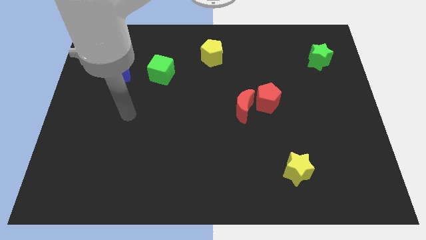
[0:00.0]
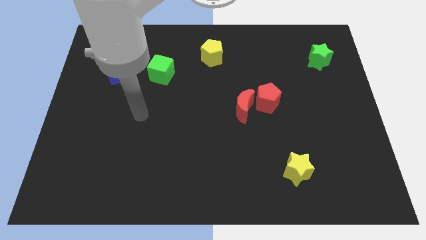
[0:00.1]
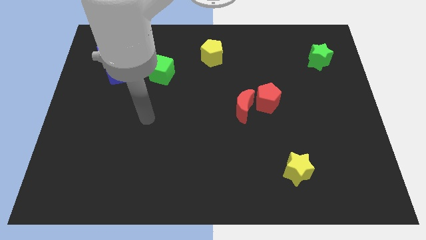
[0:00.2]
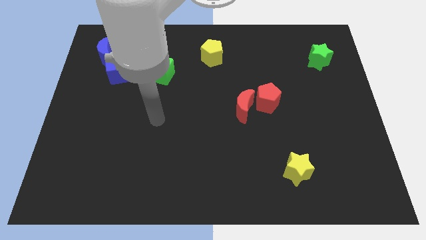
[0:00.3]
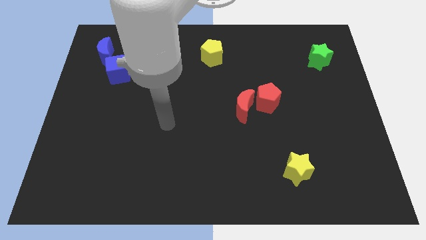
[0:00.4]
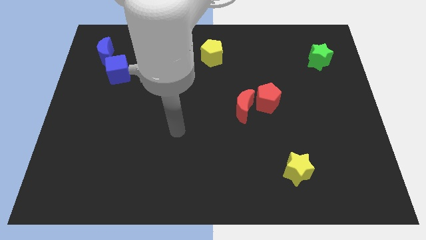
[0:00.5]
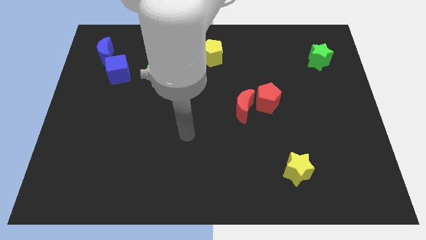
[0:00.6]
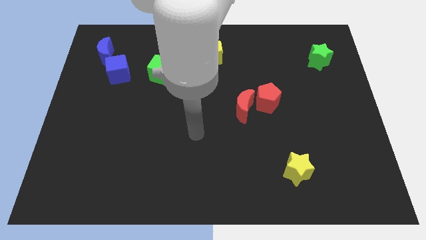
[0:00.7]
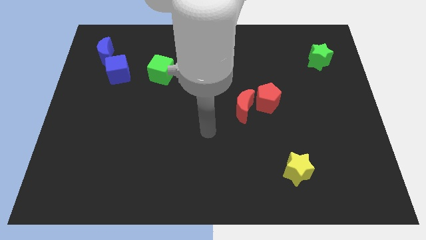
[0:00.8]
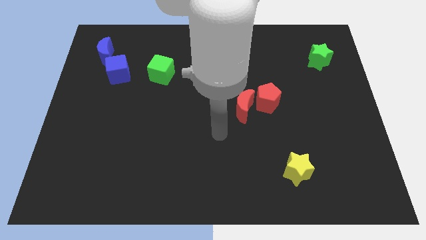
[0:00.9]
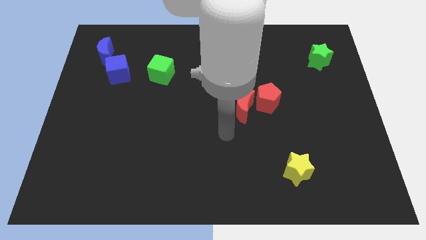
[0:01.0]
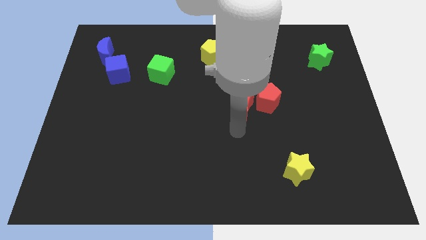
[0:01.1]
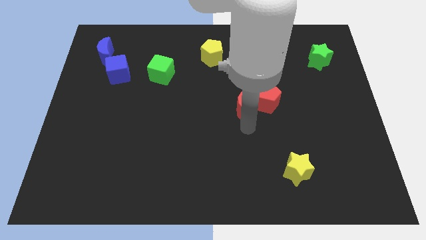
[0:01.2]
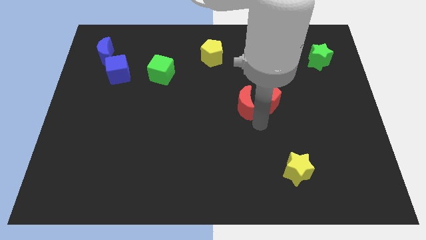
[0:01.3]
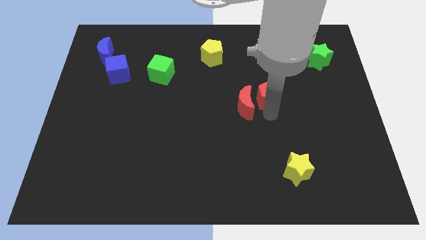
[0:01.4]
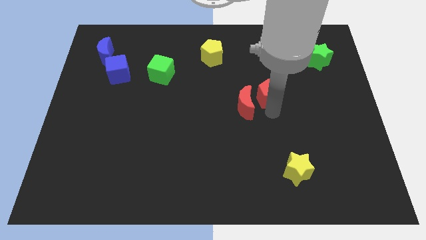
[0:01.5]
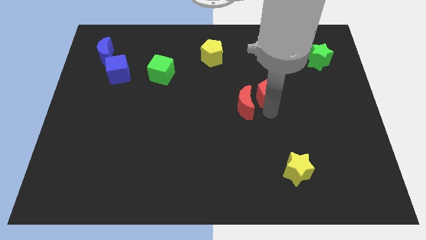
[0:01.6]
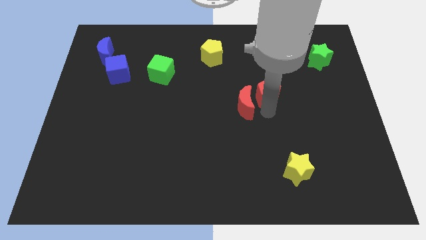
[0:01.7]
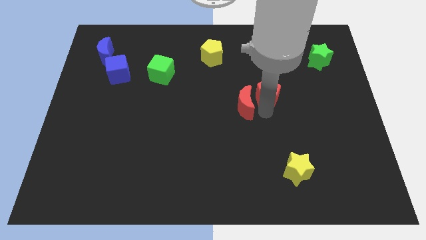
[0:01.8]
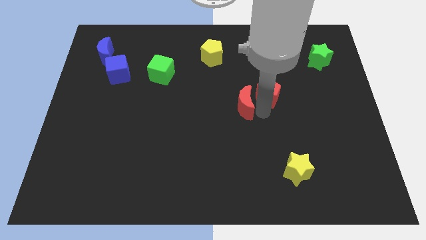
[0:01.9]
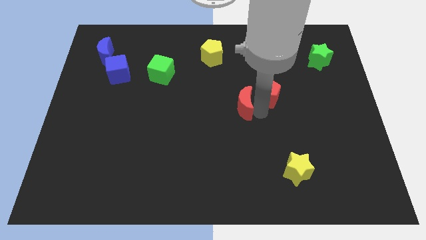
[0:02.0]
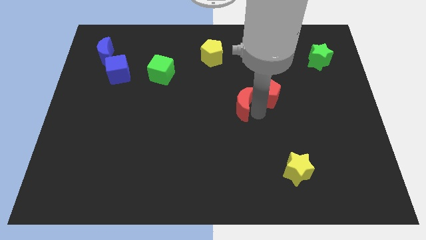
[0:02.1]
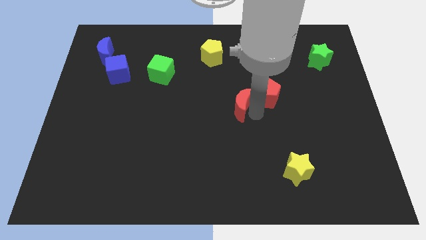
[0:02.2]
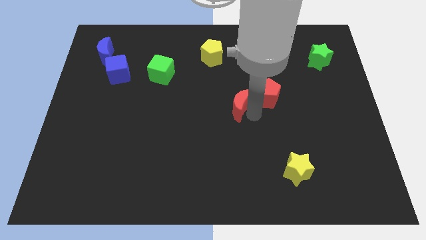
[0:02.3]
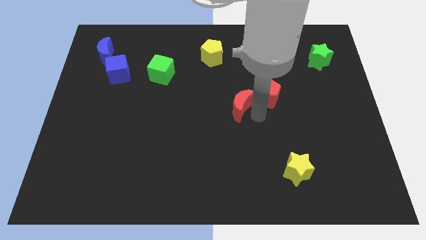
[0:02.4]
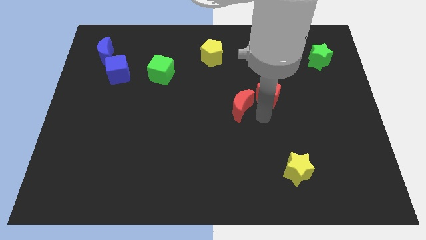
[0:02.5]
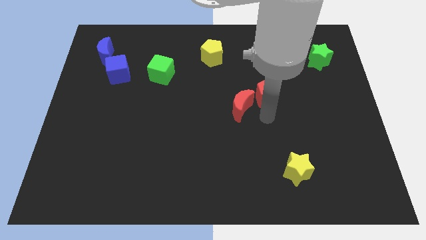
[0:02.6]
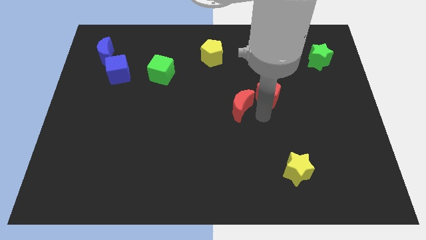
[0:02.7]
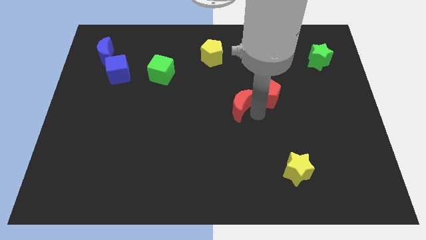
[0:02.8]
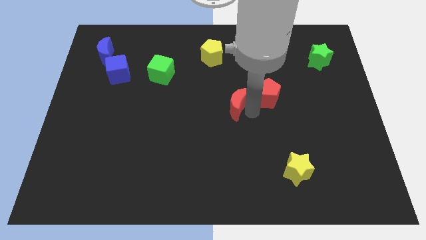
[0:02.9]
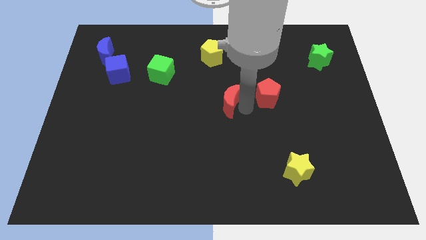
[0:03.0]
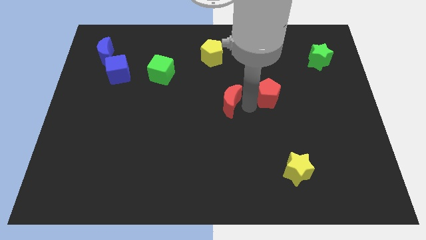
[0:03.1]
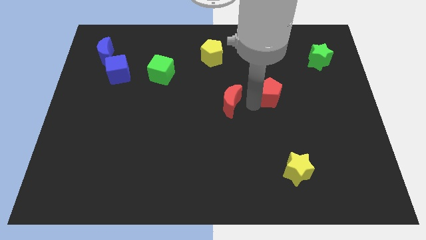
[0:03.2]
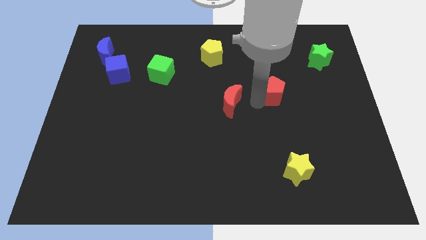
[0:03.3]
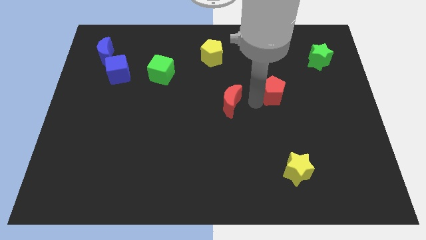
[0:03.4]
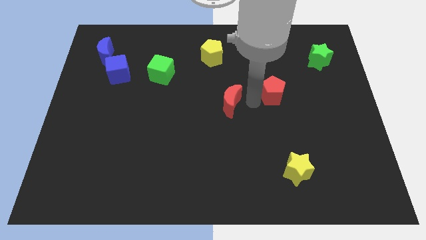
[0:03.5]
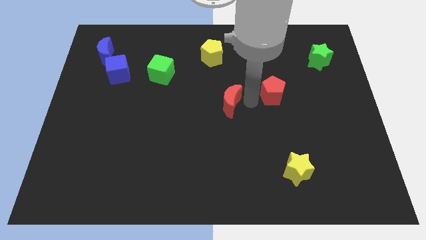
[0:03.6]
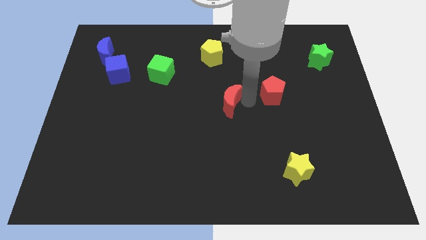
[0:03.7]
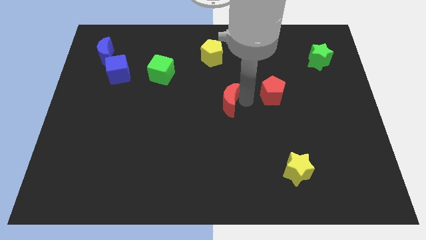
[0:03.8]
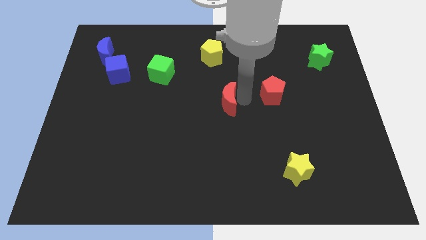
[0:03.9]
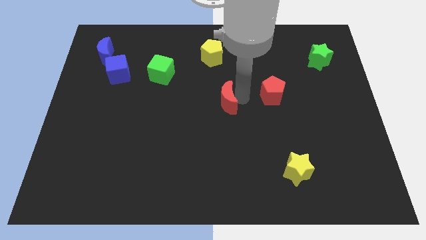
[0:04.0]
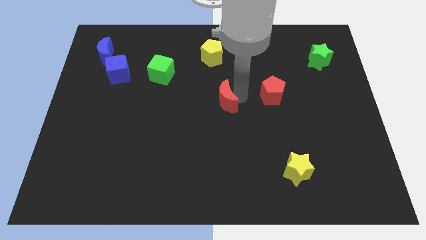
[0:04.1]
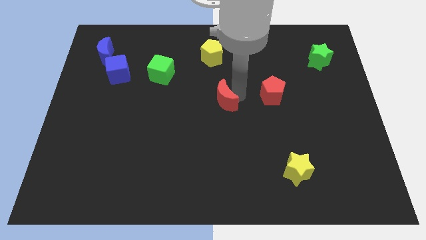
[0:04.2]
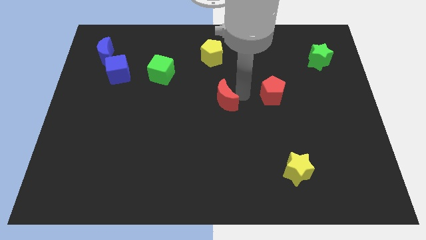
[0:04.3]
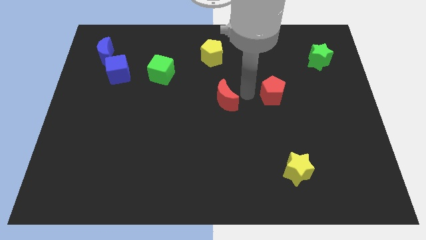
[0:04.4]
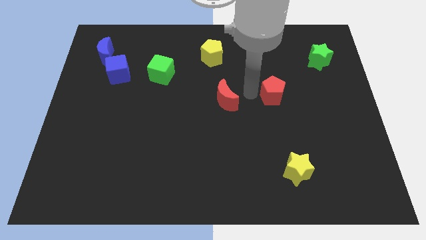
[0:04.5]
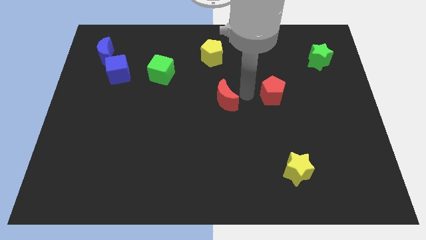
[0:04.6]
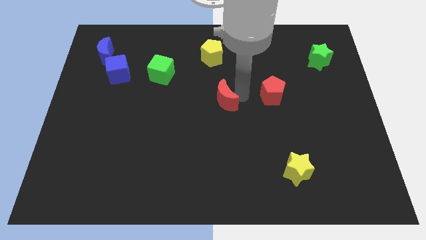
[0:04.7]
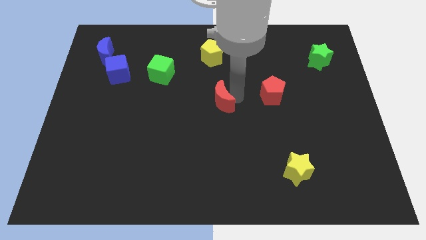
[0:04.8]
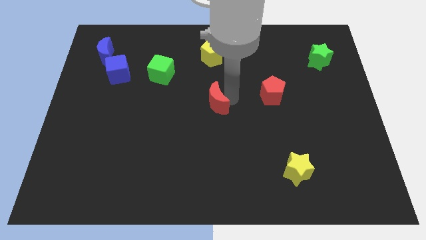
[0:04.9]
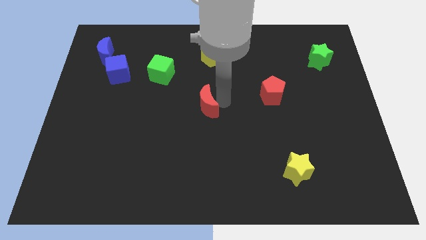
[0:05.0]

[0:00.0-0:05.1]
slightly push the red moon to the left

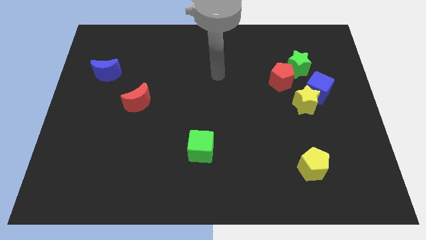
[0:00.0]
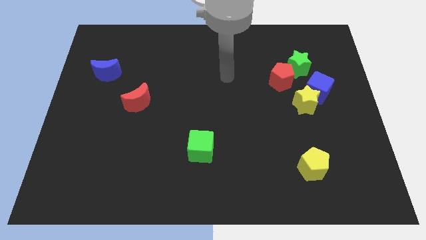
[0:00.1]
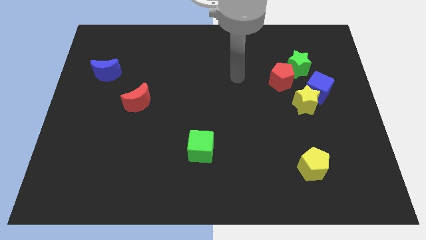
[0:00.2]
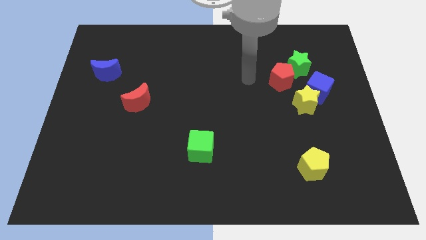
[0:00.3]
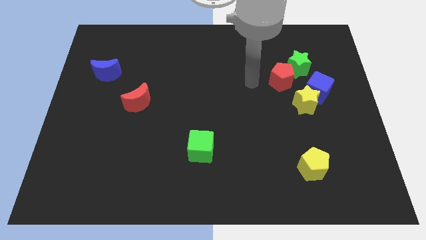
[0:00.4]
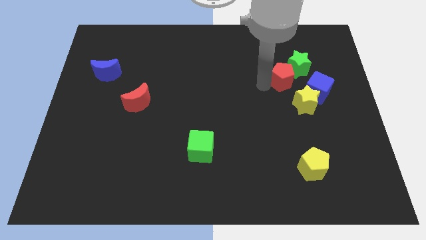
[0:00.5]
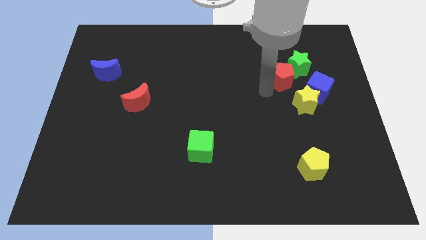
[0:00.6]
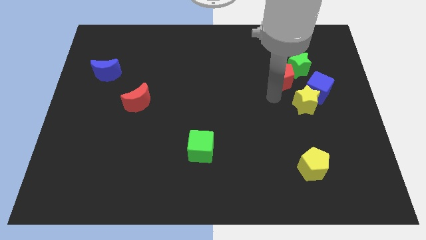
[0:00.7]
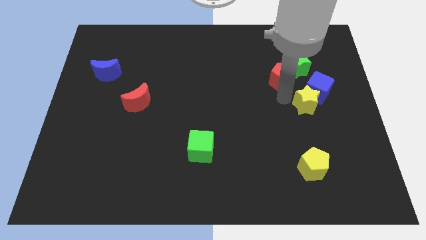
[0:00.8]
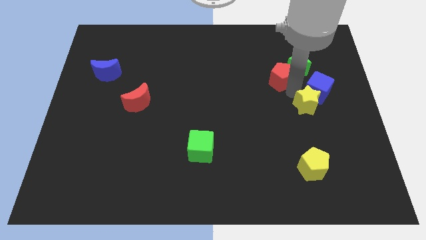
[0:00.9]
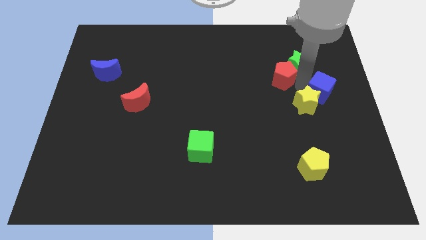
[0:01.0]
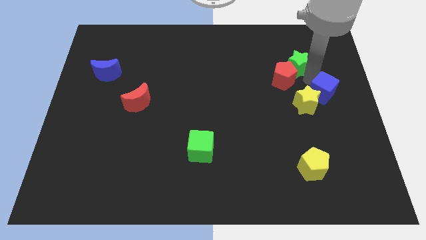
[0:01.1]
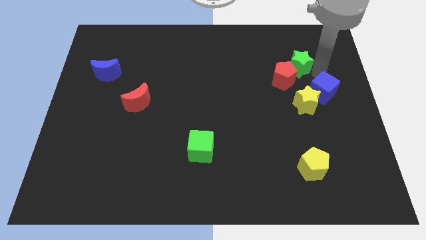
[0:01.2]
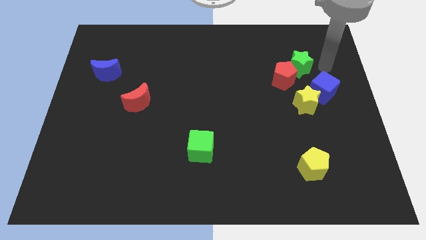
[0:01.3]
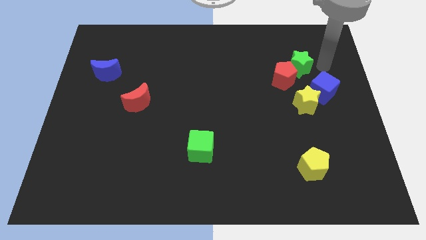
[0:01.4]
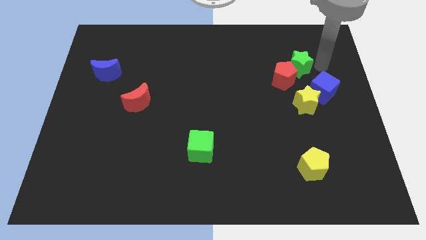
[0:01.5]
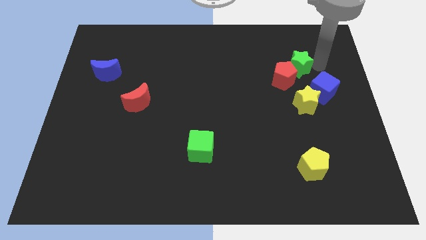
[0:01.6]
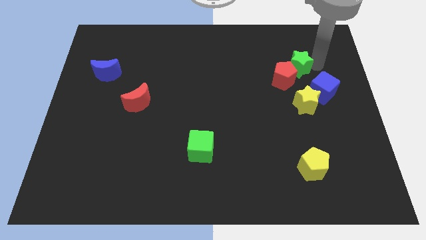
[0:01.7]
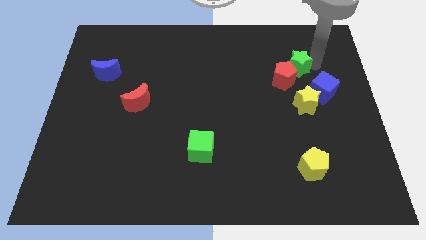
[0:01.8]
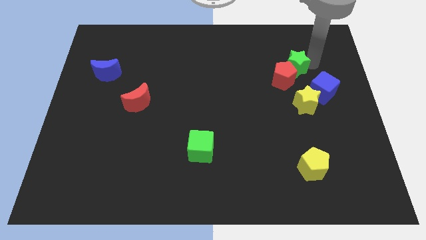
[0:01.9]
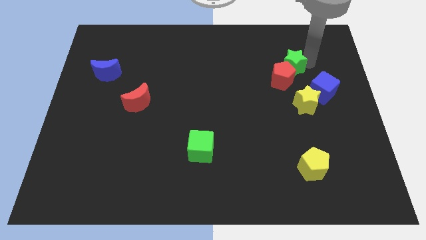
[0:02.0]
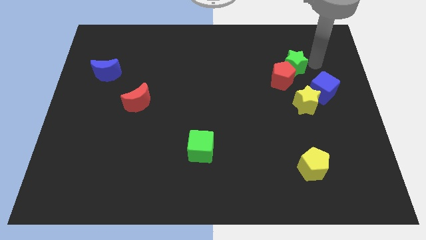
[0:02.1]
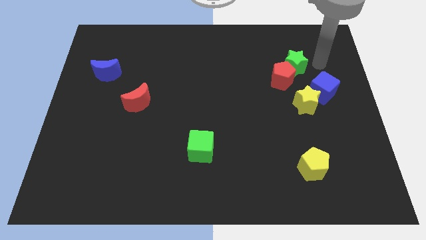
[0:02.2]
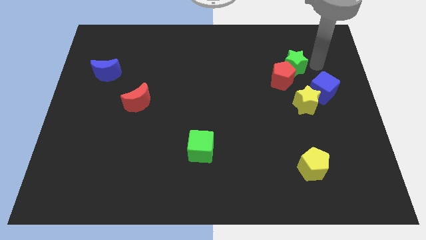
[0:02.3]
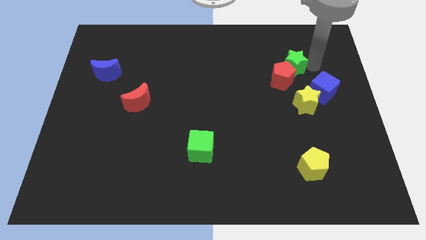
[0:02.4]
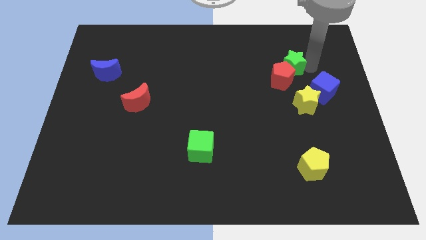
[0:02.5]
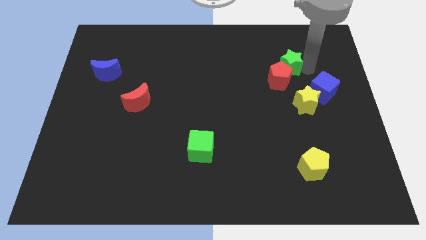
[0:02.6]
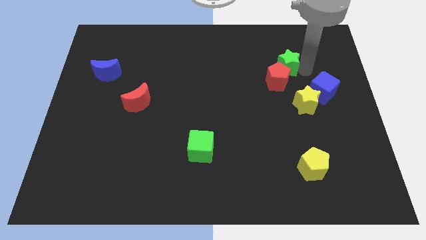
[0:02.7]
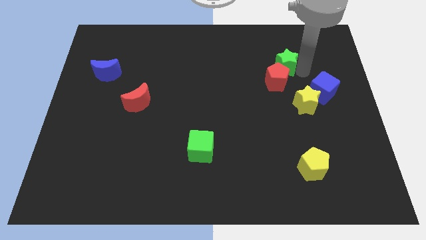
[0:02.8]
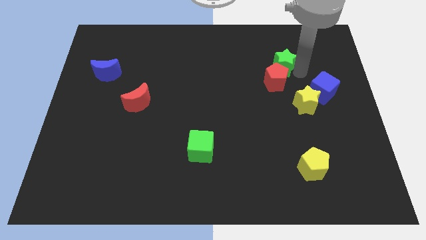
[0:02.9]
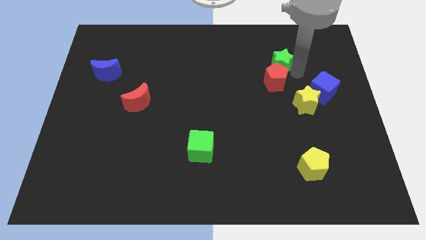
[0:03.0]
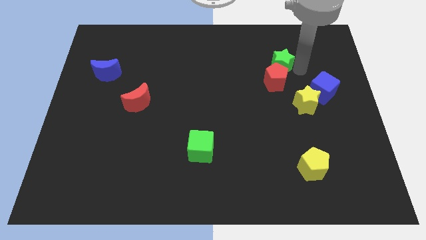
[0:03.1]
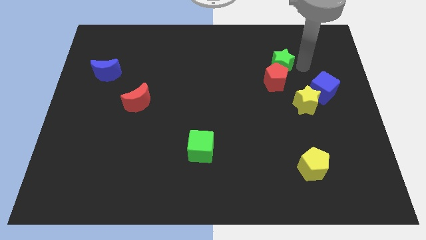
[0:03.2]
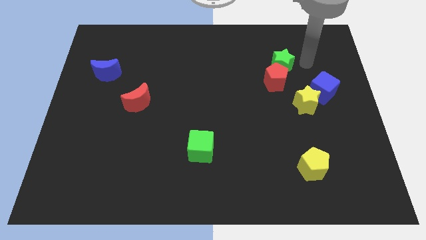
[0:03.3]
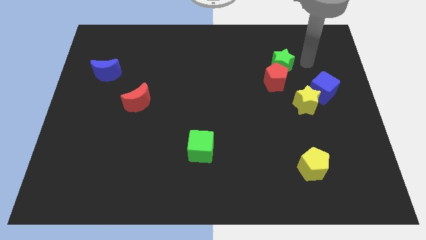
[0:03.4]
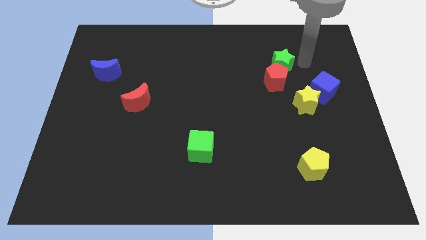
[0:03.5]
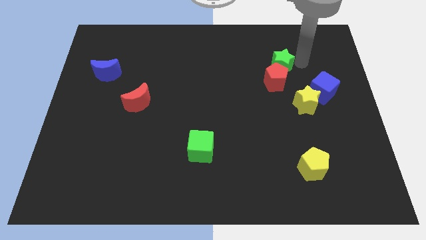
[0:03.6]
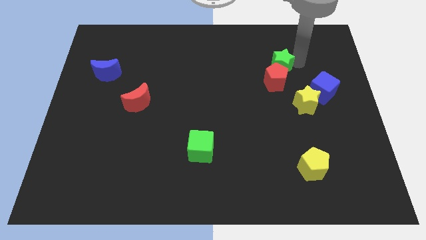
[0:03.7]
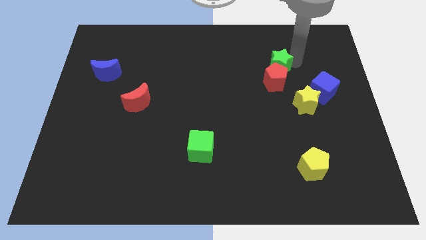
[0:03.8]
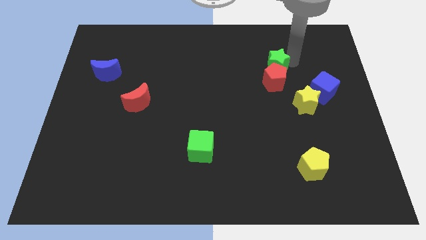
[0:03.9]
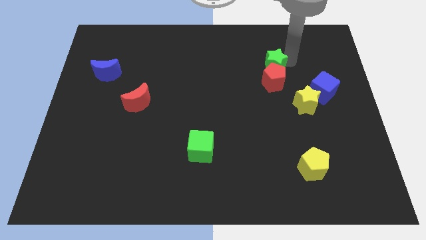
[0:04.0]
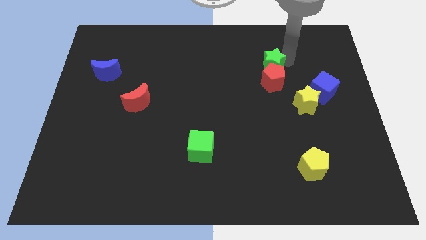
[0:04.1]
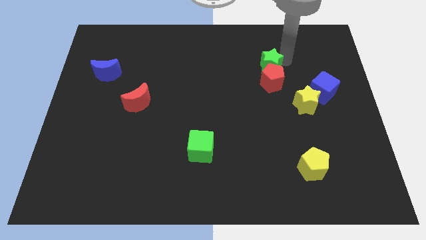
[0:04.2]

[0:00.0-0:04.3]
slide the green star a little left
